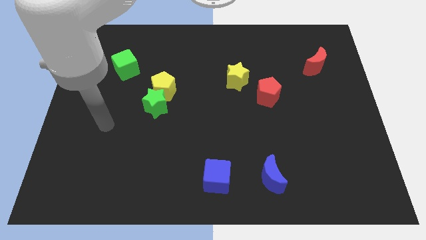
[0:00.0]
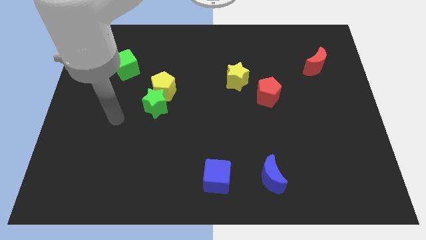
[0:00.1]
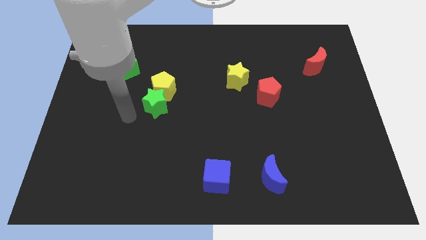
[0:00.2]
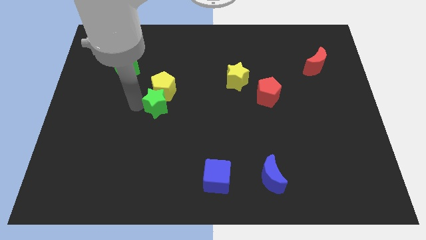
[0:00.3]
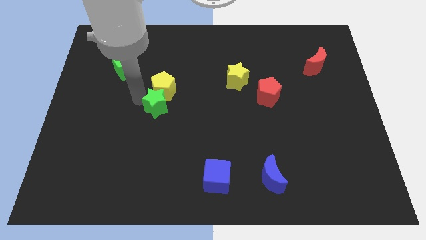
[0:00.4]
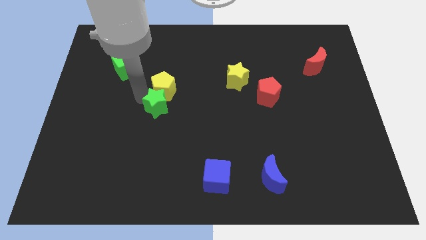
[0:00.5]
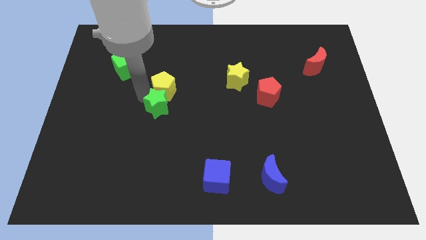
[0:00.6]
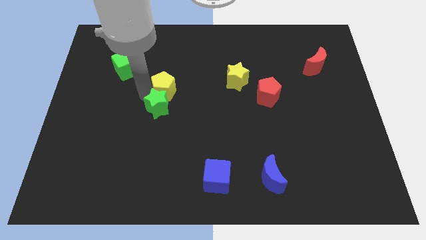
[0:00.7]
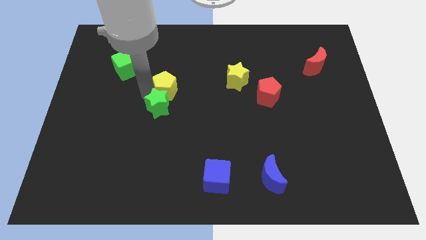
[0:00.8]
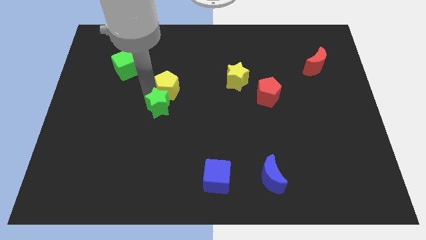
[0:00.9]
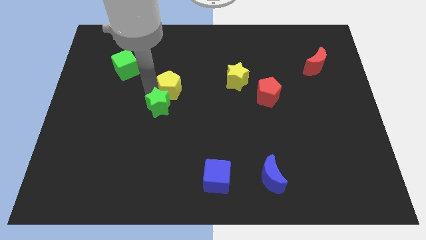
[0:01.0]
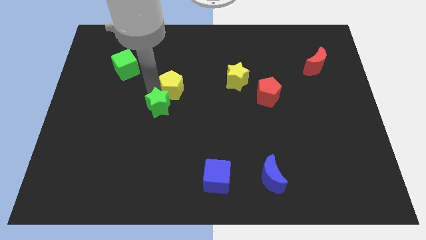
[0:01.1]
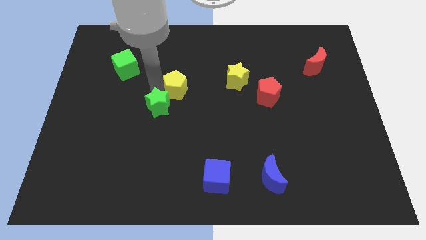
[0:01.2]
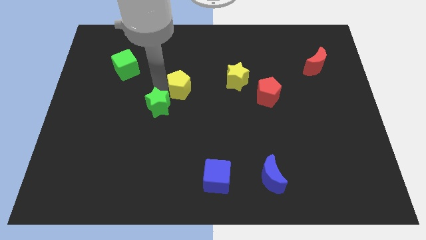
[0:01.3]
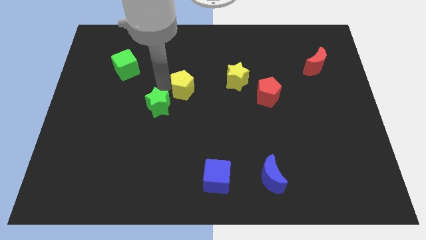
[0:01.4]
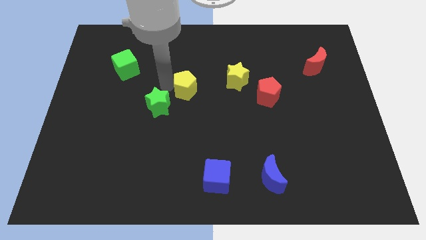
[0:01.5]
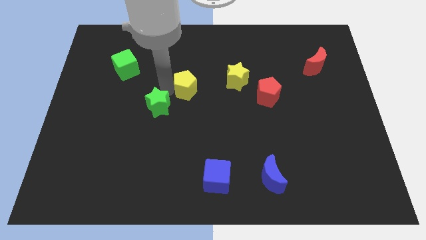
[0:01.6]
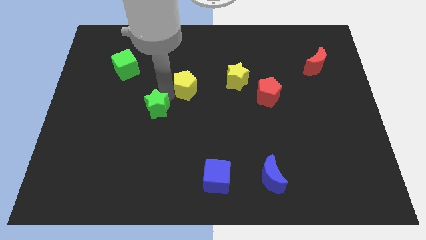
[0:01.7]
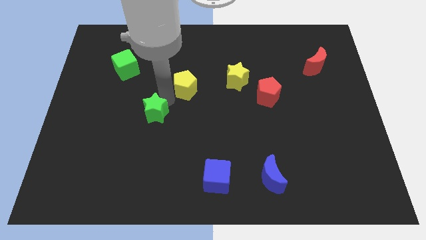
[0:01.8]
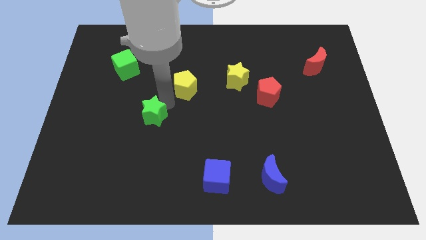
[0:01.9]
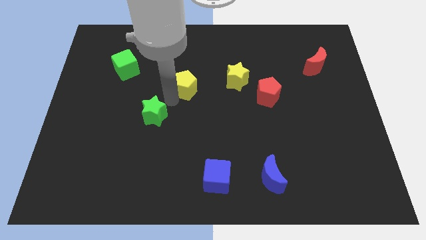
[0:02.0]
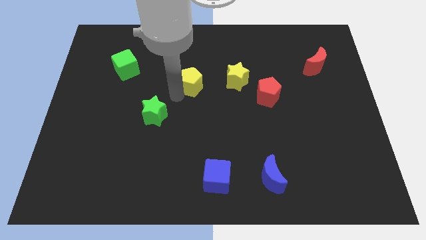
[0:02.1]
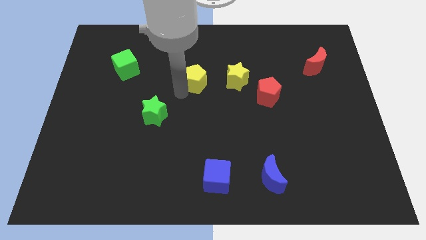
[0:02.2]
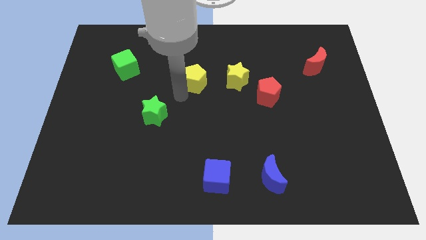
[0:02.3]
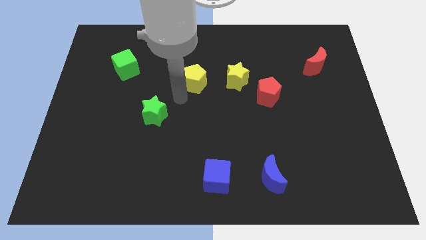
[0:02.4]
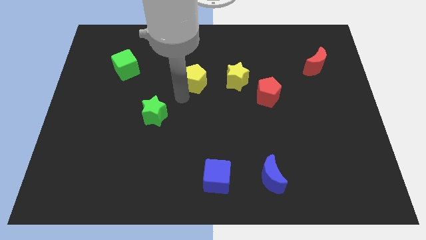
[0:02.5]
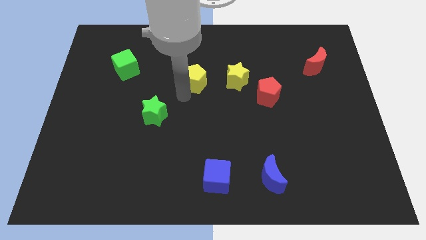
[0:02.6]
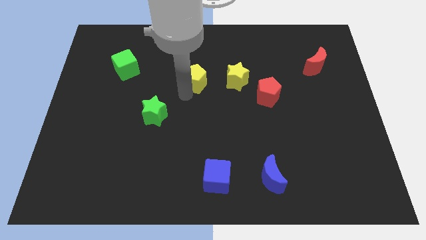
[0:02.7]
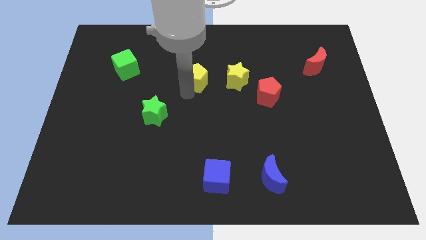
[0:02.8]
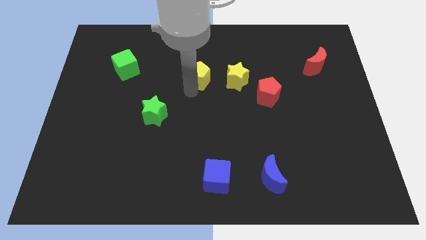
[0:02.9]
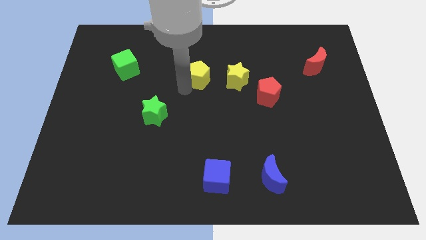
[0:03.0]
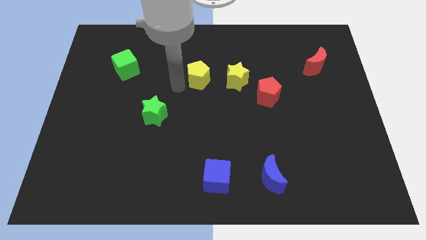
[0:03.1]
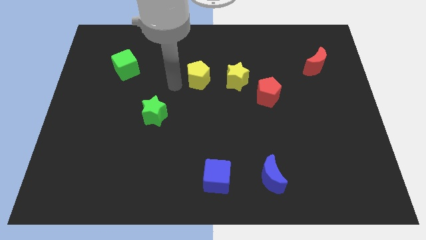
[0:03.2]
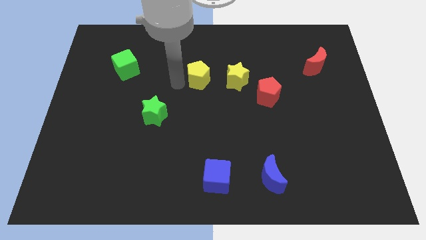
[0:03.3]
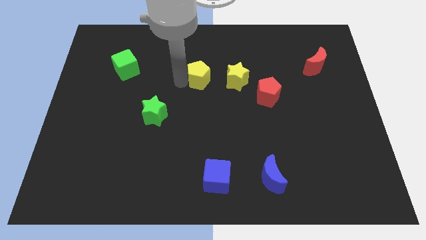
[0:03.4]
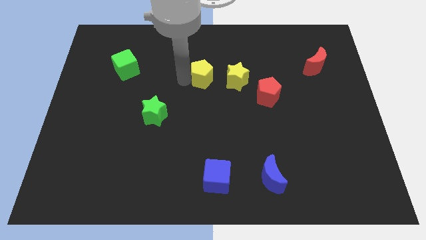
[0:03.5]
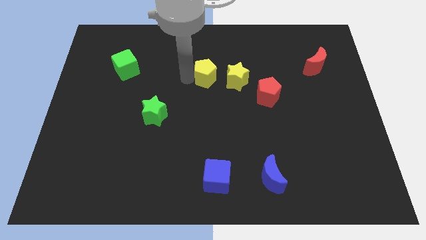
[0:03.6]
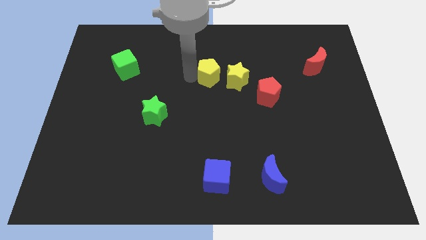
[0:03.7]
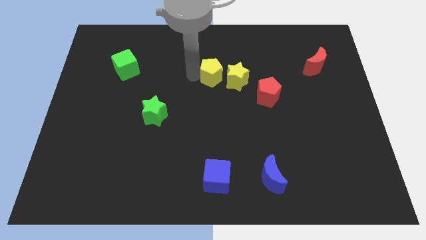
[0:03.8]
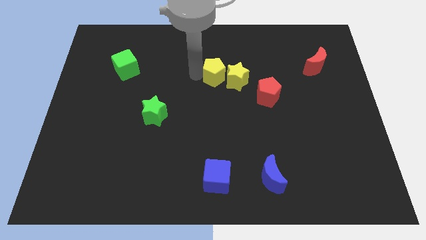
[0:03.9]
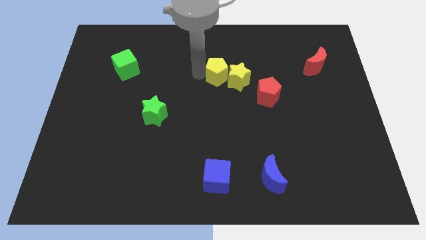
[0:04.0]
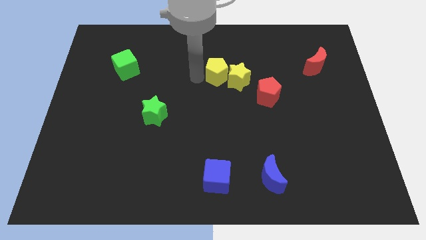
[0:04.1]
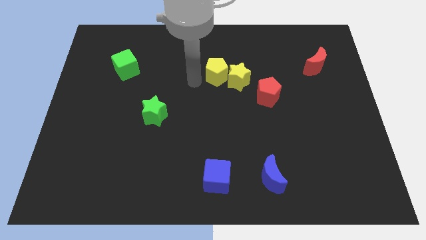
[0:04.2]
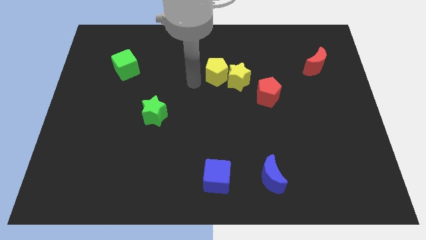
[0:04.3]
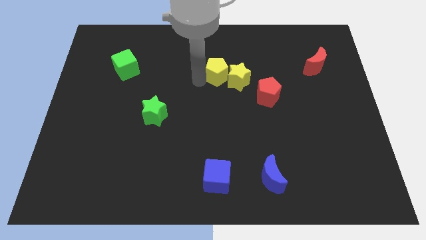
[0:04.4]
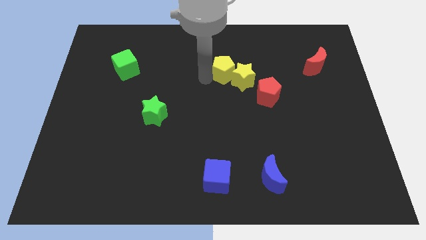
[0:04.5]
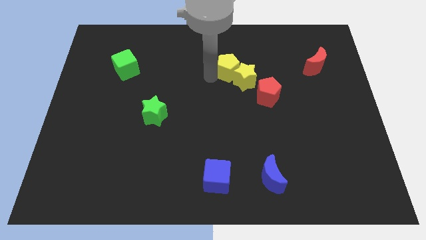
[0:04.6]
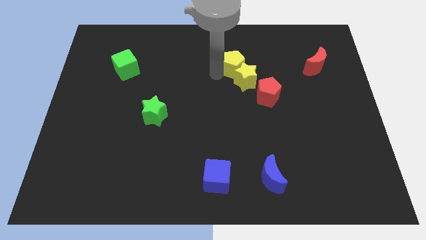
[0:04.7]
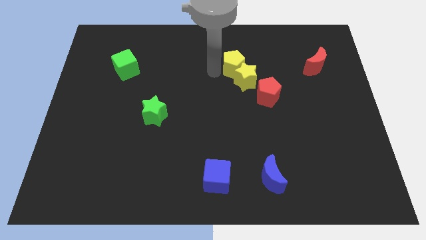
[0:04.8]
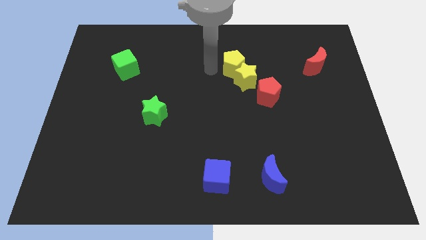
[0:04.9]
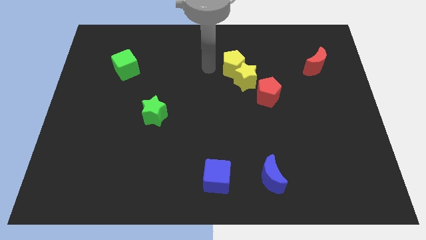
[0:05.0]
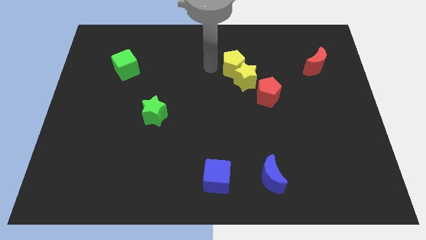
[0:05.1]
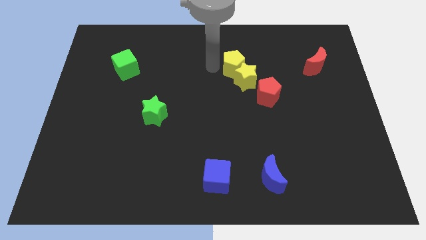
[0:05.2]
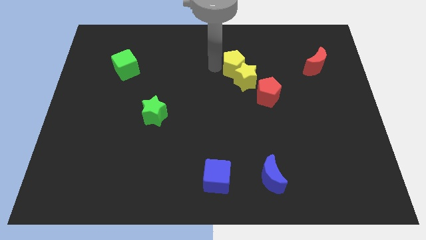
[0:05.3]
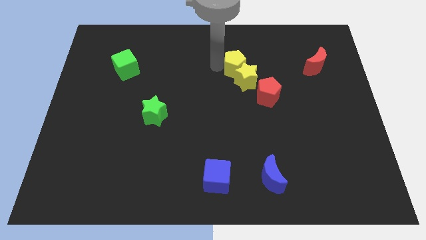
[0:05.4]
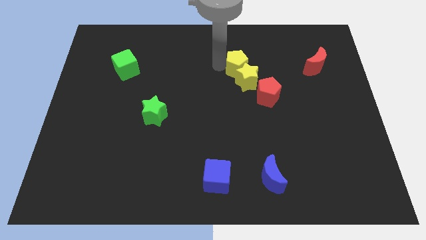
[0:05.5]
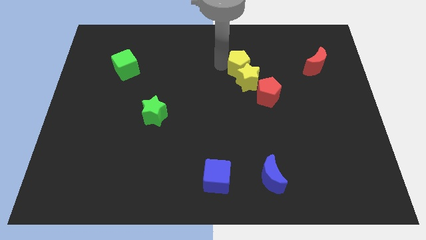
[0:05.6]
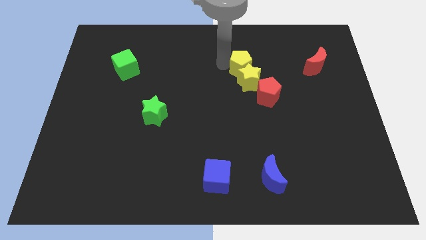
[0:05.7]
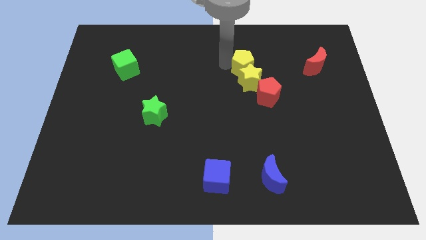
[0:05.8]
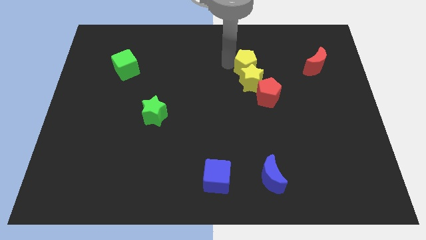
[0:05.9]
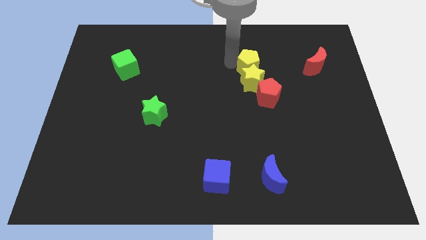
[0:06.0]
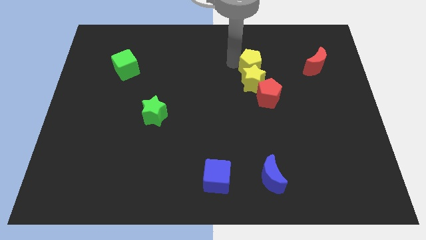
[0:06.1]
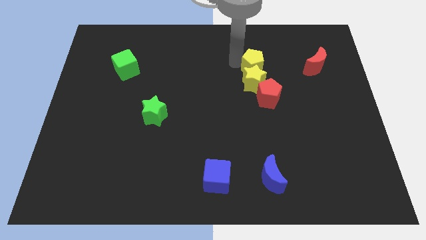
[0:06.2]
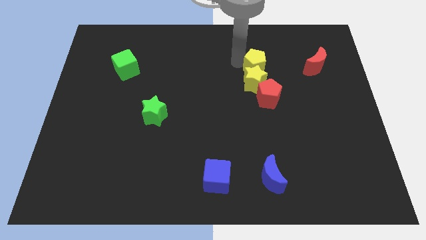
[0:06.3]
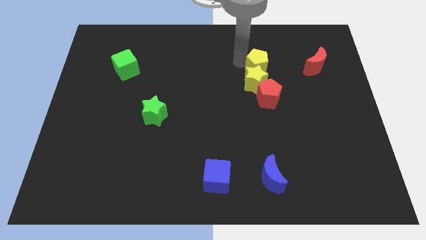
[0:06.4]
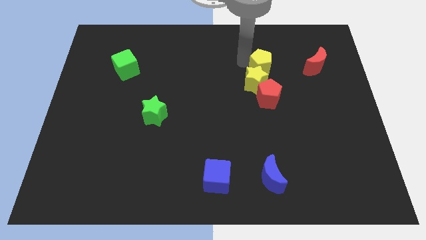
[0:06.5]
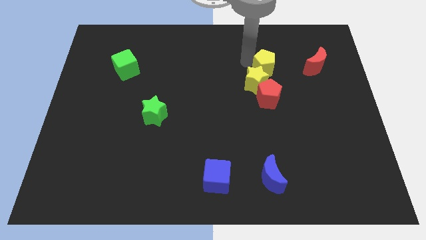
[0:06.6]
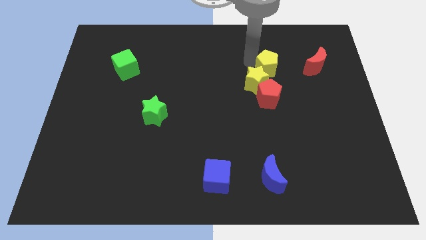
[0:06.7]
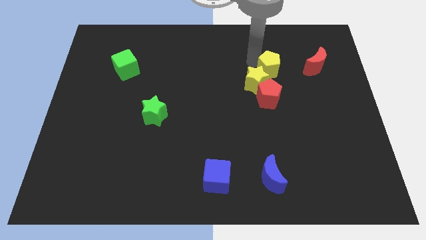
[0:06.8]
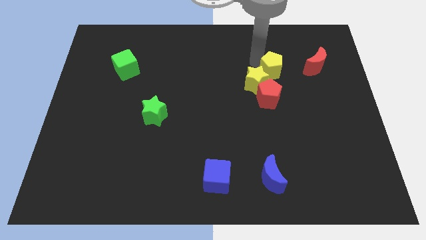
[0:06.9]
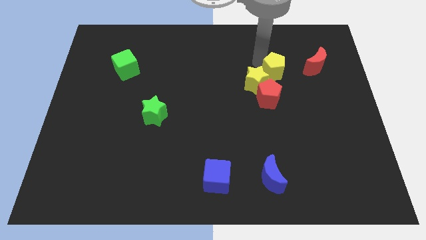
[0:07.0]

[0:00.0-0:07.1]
move the yellow pentagon diagonally up and to the right of the red pentagon

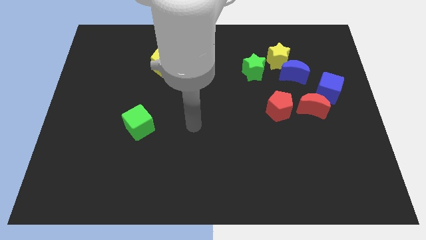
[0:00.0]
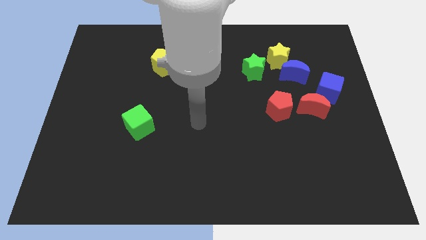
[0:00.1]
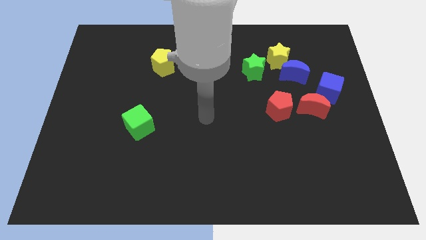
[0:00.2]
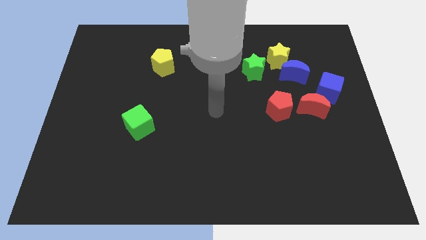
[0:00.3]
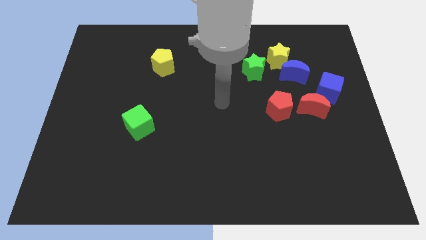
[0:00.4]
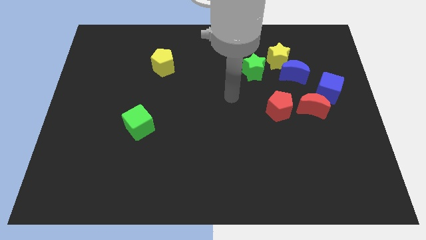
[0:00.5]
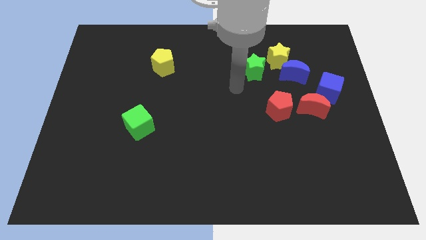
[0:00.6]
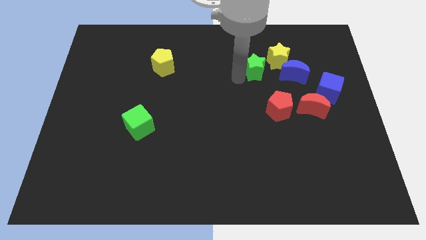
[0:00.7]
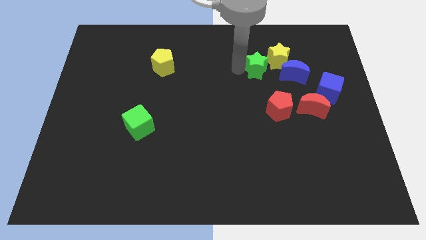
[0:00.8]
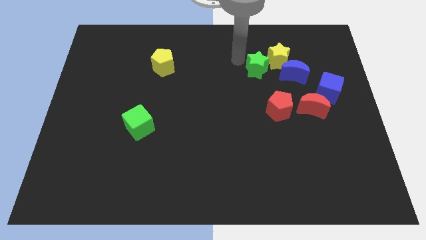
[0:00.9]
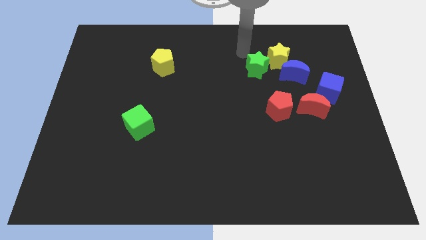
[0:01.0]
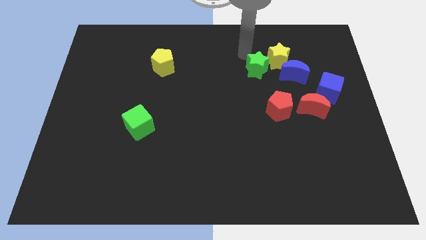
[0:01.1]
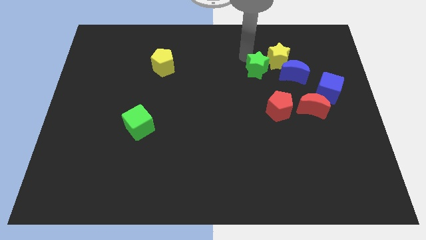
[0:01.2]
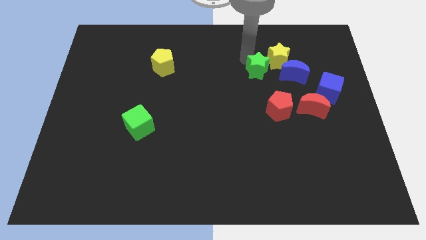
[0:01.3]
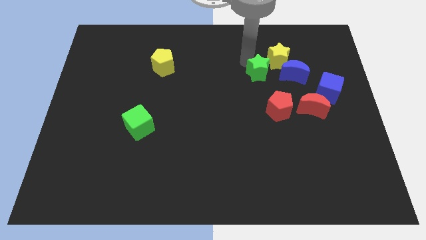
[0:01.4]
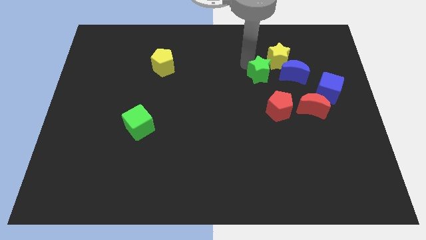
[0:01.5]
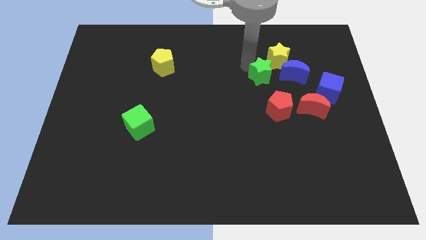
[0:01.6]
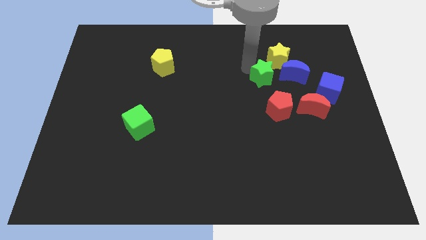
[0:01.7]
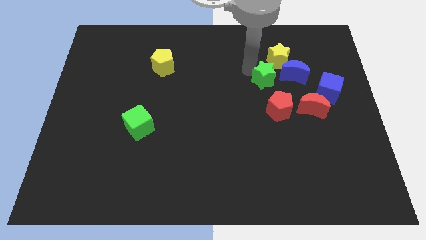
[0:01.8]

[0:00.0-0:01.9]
slide the green star to the bottom left of the blue moon
